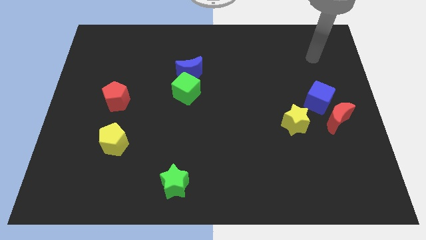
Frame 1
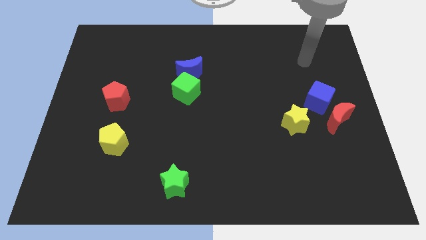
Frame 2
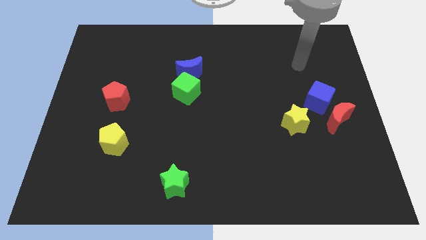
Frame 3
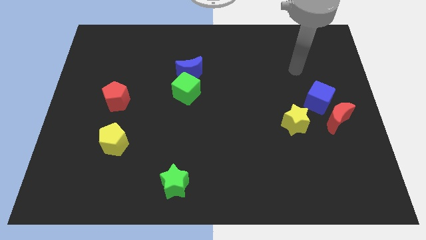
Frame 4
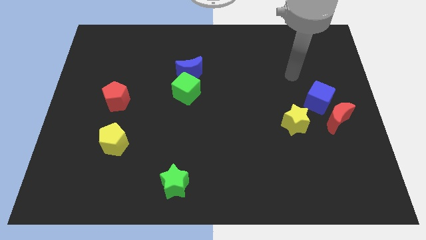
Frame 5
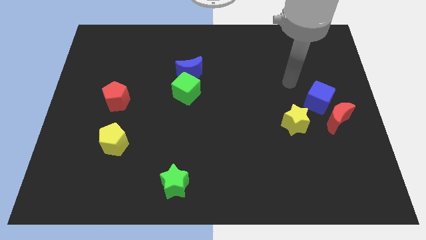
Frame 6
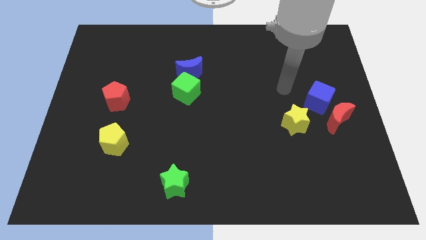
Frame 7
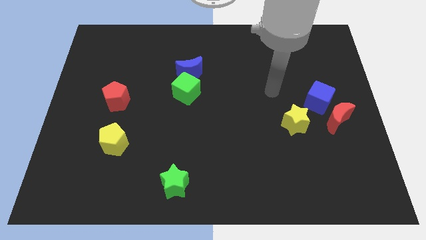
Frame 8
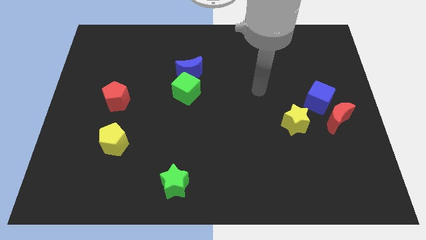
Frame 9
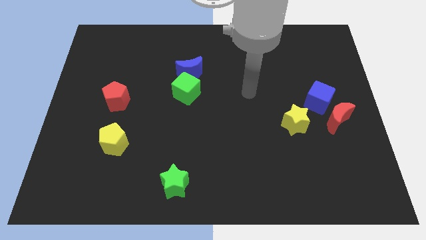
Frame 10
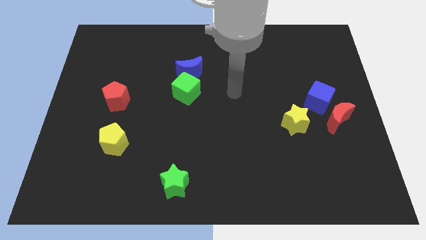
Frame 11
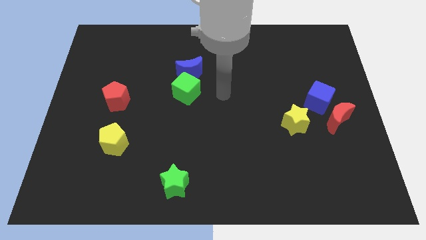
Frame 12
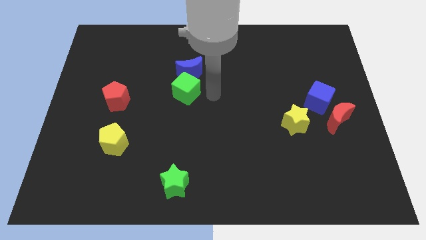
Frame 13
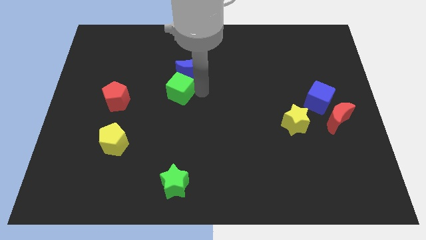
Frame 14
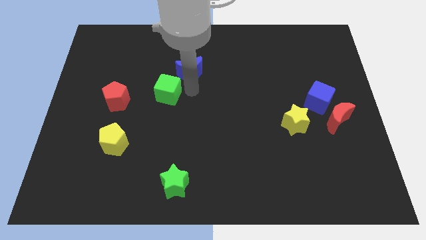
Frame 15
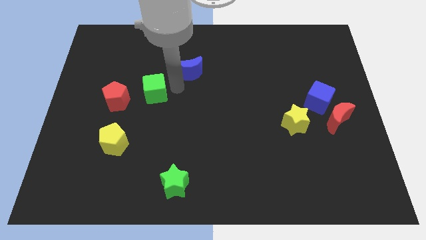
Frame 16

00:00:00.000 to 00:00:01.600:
separate the blue moon from the green cube

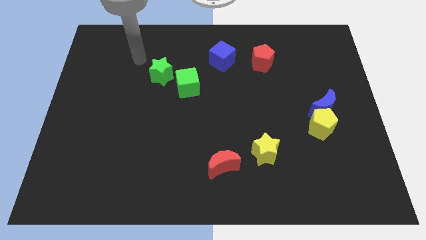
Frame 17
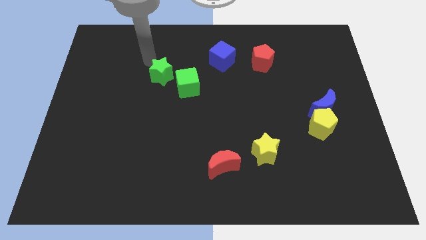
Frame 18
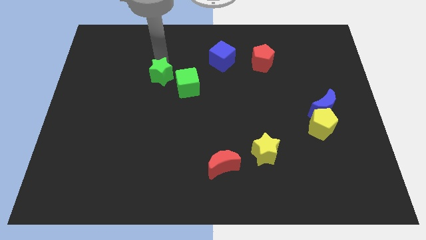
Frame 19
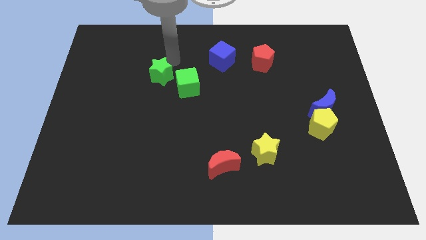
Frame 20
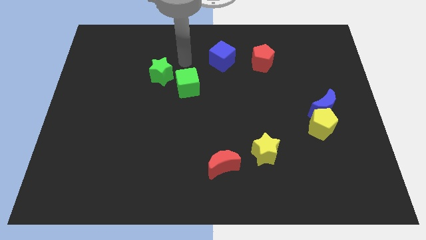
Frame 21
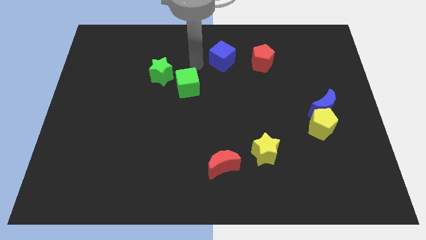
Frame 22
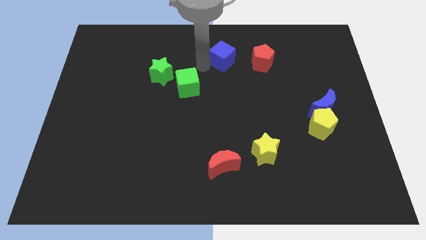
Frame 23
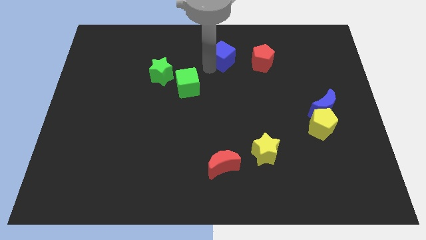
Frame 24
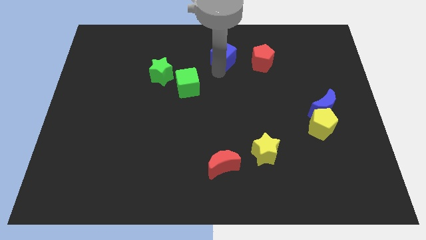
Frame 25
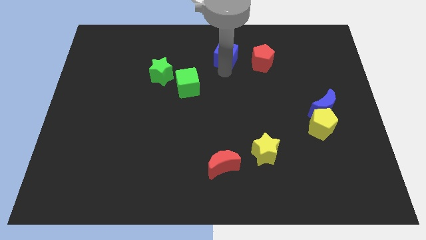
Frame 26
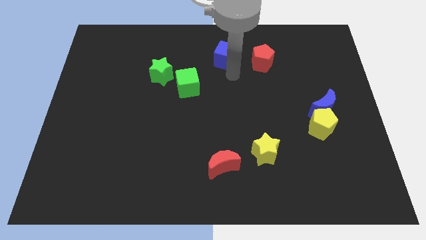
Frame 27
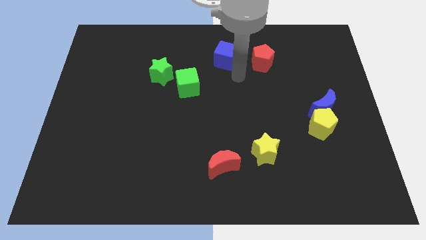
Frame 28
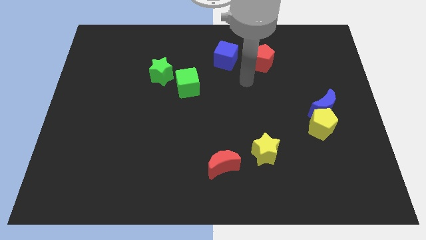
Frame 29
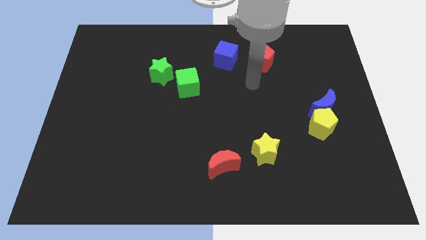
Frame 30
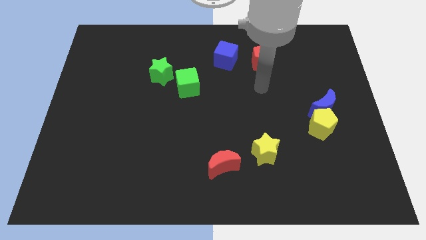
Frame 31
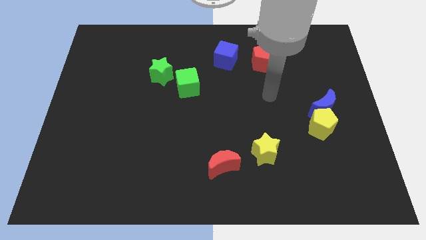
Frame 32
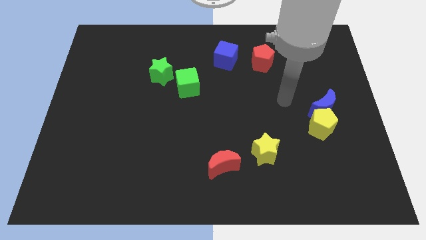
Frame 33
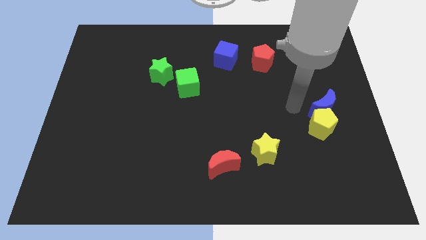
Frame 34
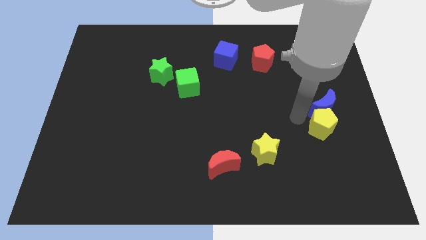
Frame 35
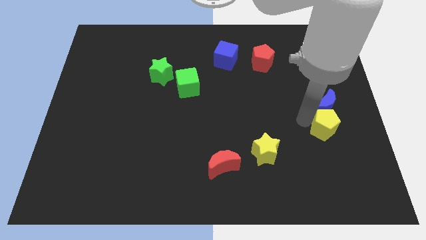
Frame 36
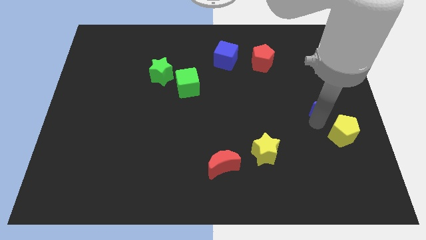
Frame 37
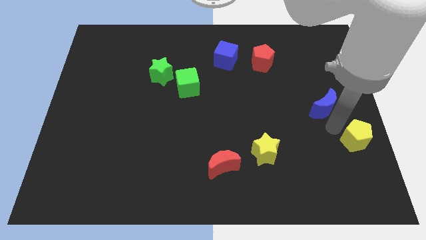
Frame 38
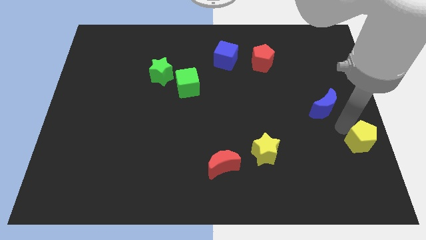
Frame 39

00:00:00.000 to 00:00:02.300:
pull the blue moon apart from the yellow pentagon

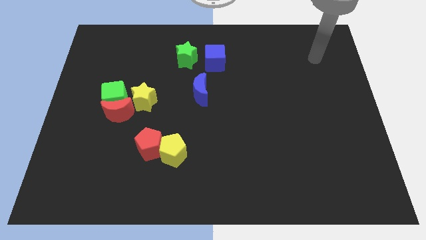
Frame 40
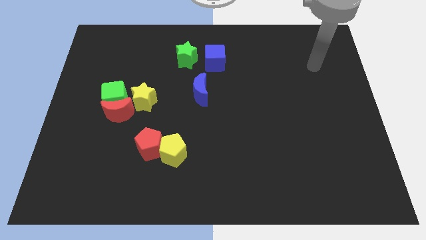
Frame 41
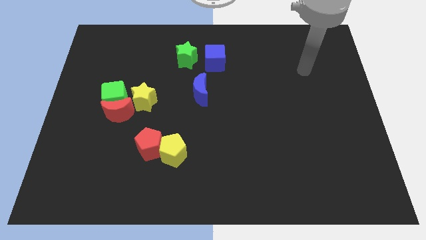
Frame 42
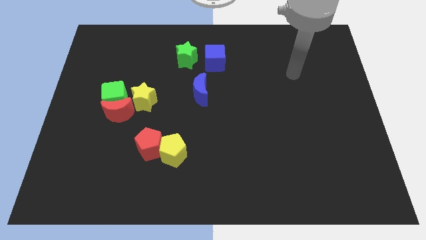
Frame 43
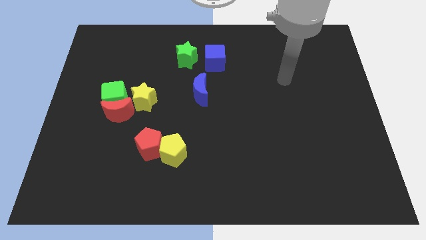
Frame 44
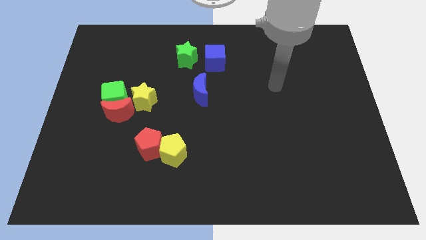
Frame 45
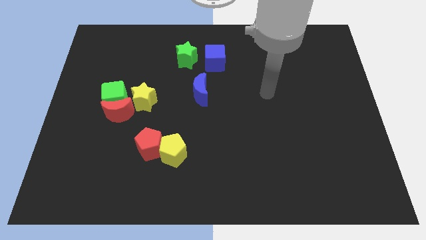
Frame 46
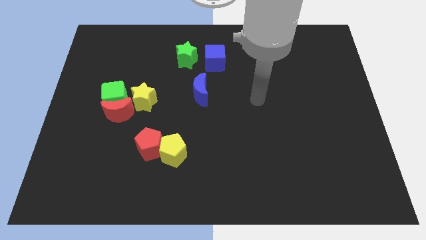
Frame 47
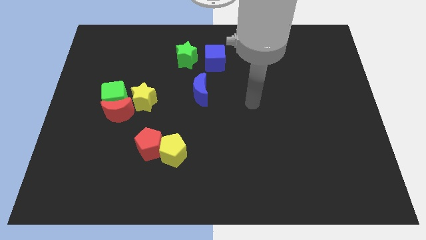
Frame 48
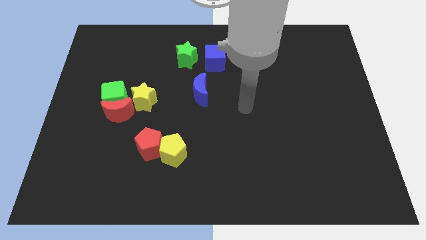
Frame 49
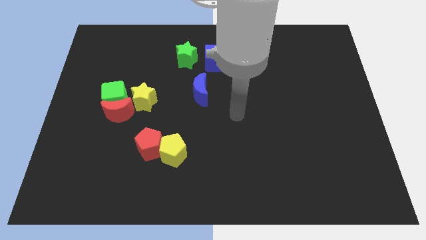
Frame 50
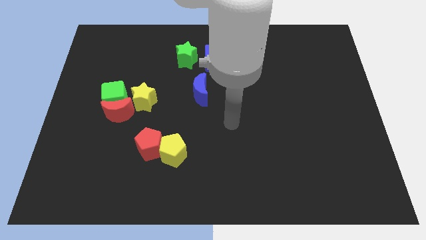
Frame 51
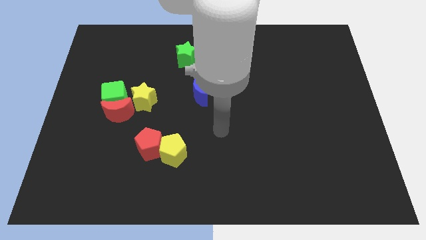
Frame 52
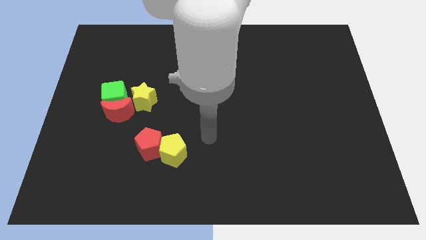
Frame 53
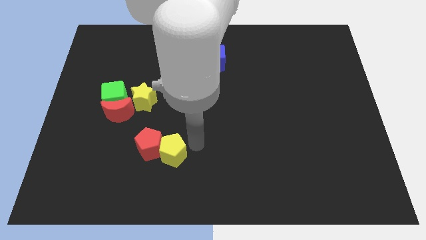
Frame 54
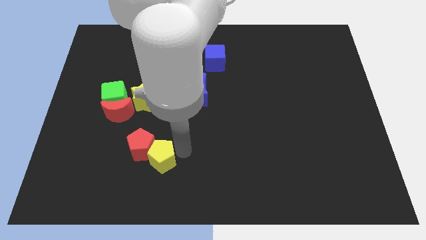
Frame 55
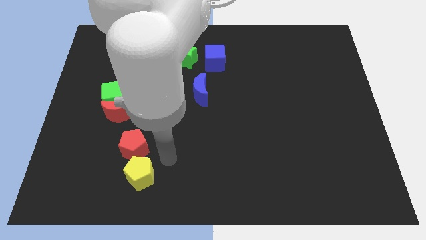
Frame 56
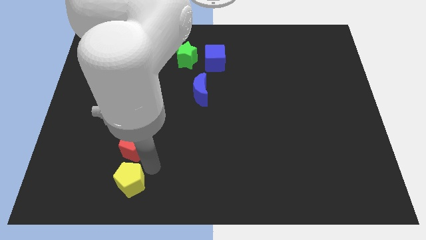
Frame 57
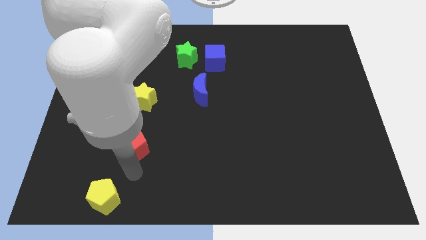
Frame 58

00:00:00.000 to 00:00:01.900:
separate the red pentagon from the yellow pentagon

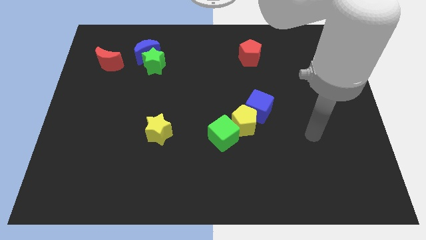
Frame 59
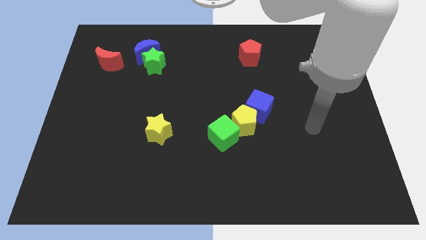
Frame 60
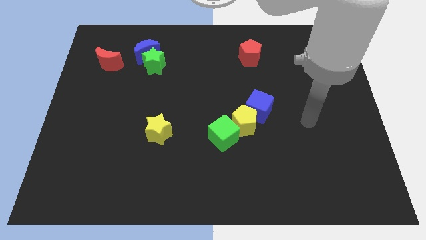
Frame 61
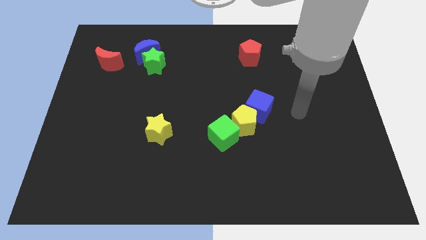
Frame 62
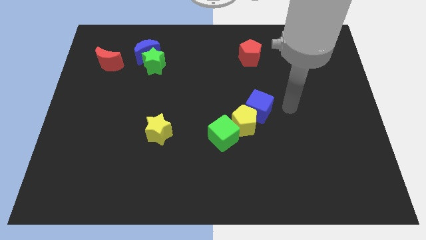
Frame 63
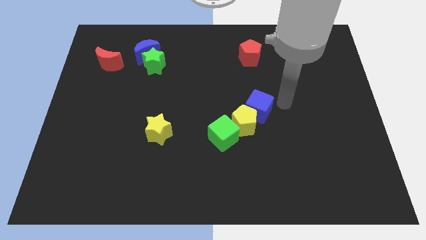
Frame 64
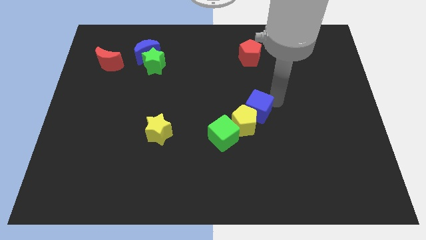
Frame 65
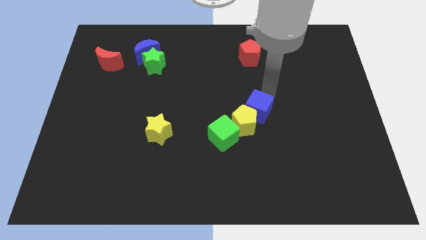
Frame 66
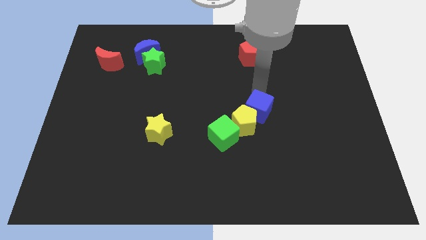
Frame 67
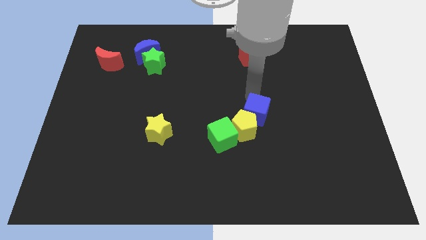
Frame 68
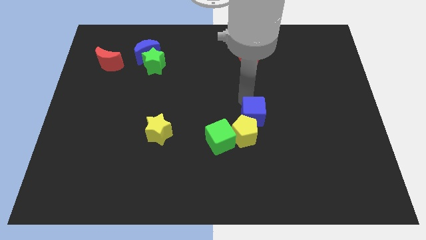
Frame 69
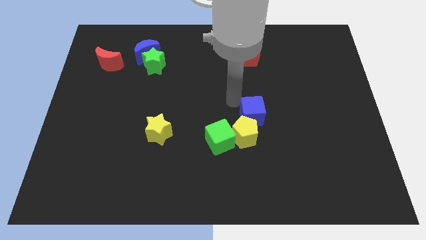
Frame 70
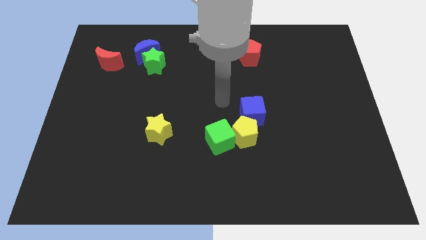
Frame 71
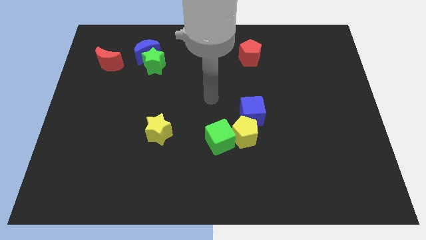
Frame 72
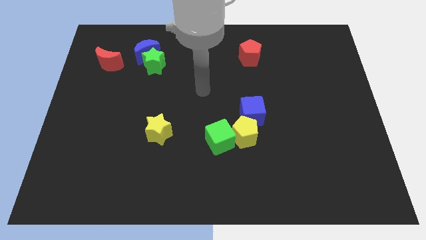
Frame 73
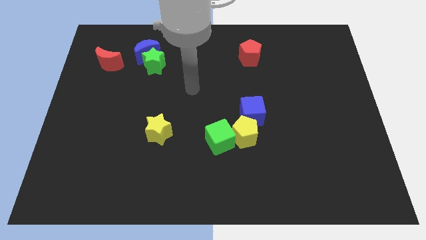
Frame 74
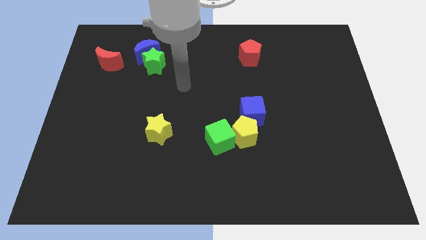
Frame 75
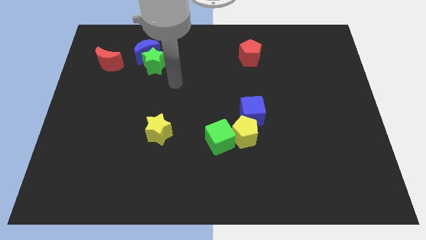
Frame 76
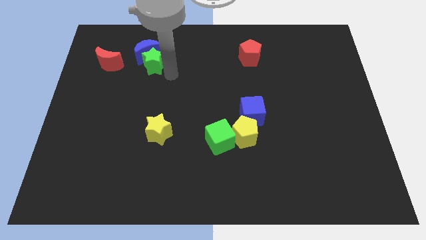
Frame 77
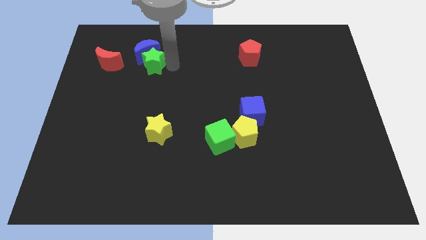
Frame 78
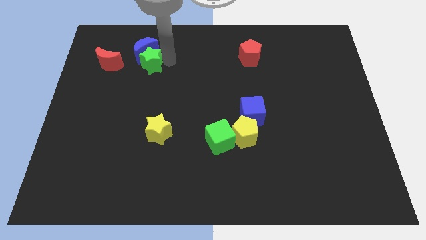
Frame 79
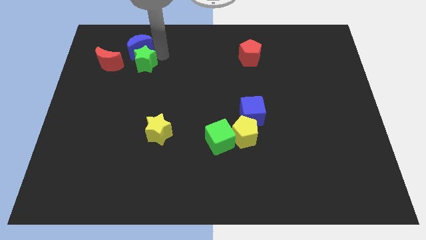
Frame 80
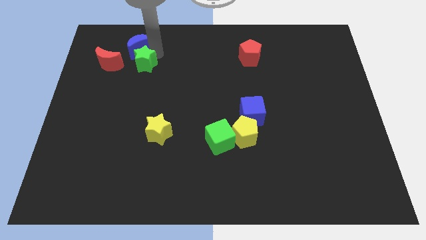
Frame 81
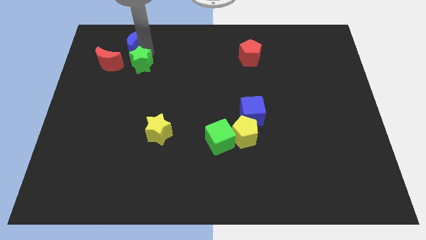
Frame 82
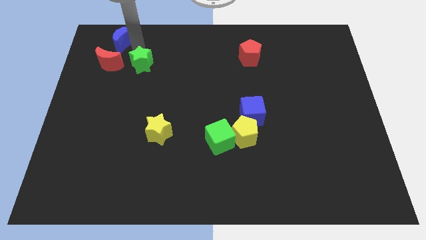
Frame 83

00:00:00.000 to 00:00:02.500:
move the green star away from the blue moon

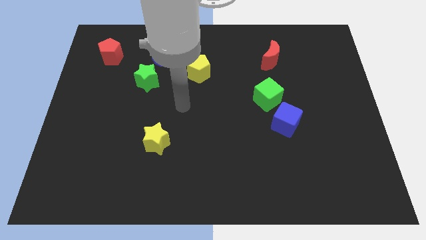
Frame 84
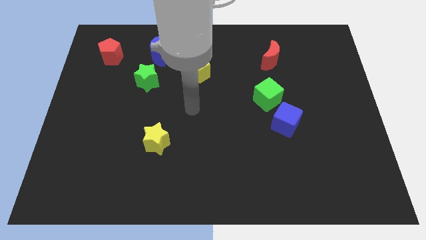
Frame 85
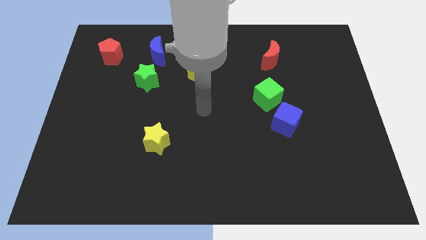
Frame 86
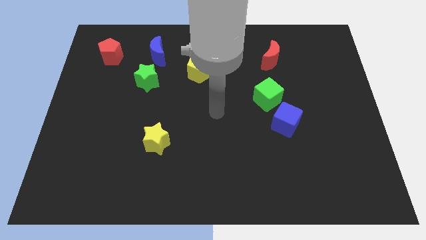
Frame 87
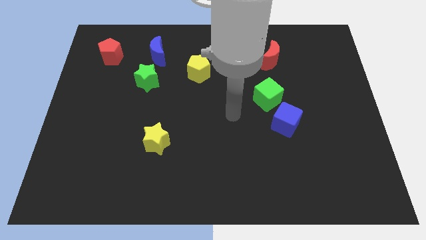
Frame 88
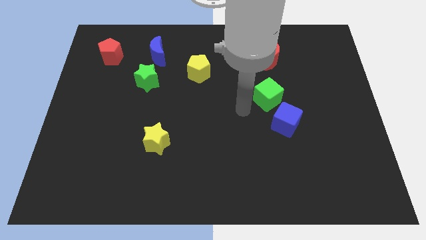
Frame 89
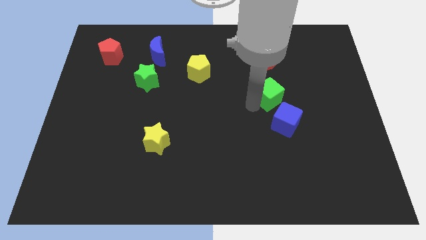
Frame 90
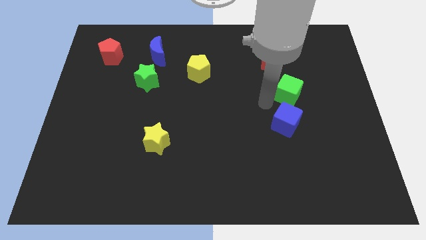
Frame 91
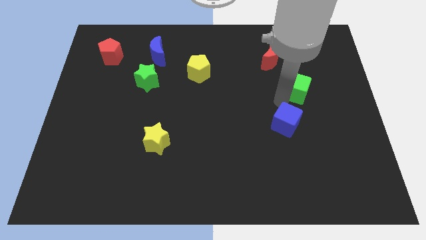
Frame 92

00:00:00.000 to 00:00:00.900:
separate the blue cube from the green cube

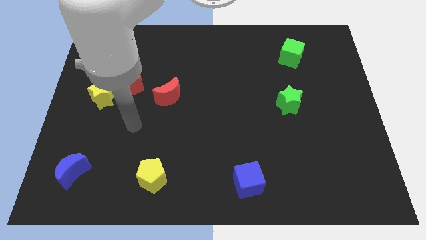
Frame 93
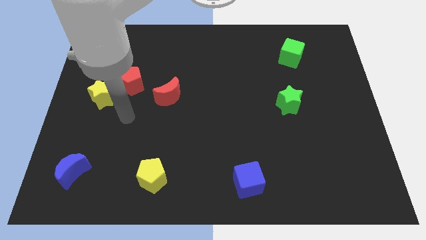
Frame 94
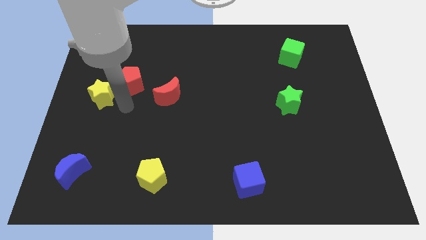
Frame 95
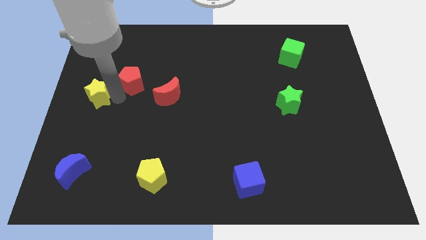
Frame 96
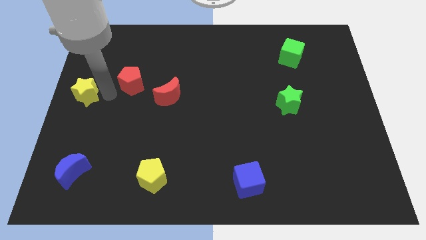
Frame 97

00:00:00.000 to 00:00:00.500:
pull the red pentagon apart from the yellow star
